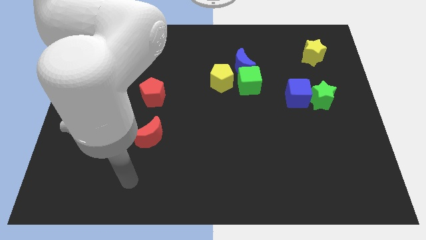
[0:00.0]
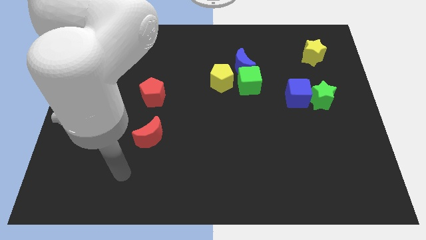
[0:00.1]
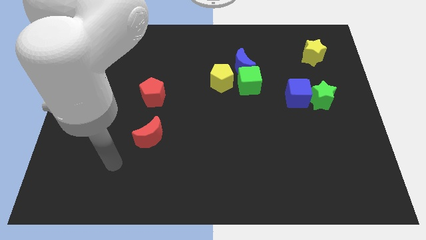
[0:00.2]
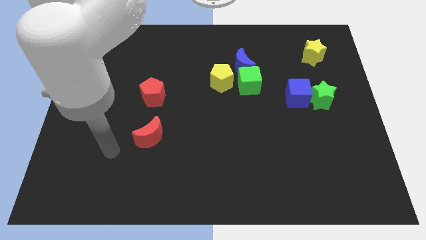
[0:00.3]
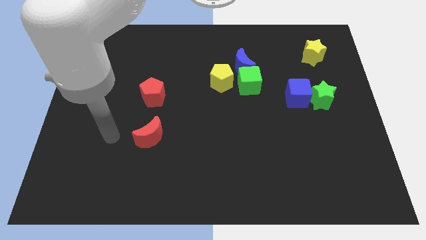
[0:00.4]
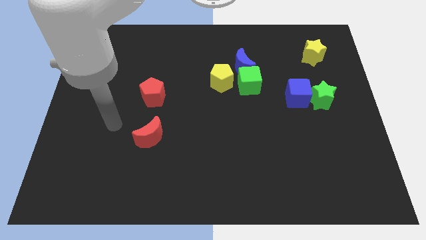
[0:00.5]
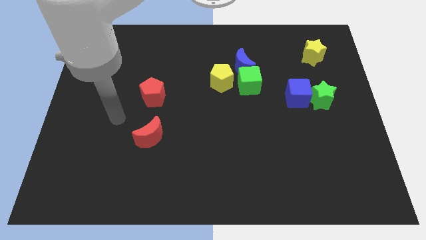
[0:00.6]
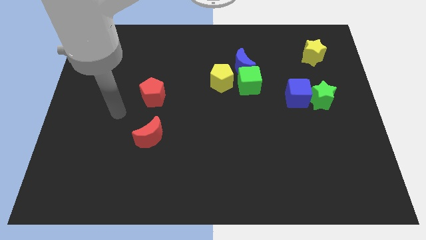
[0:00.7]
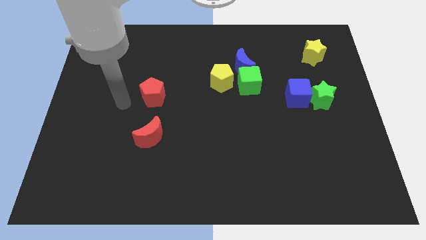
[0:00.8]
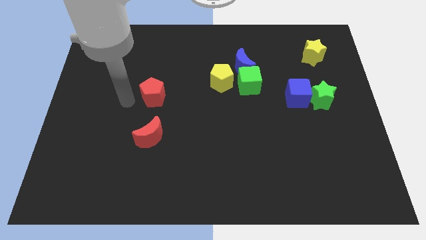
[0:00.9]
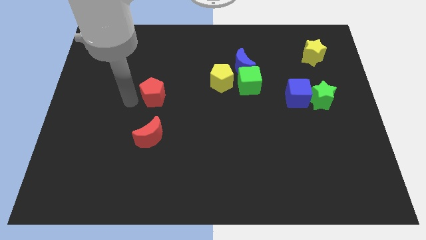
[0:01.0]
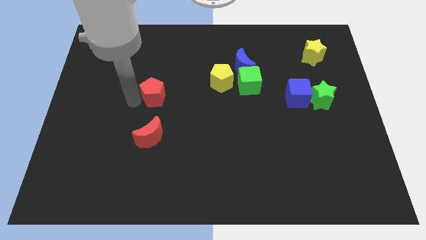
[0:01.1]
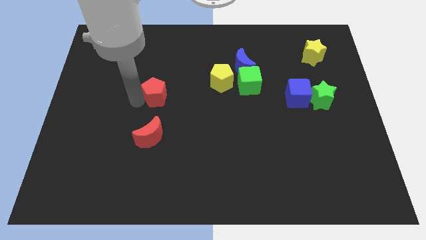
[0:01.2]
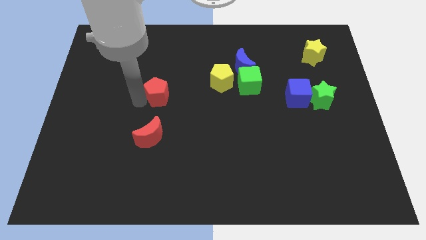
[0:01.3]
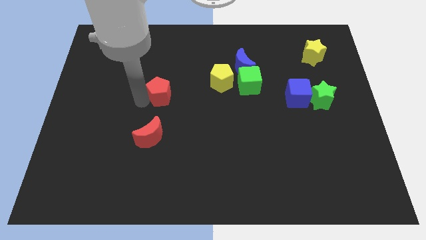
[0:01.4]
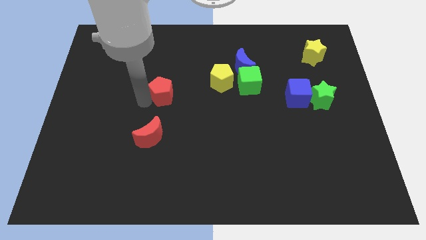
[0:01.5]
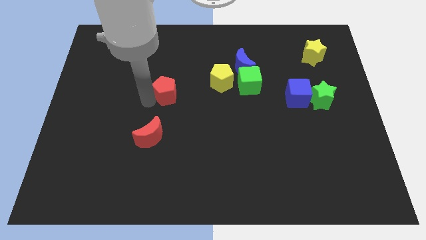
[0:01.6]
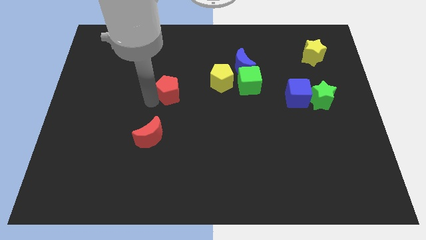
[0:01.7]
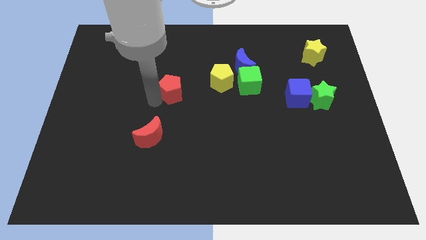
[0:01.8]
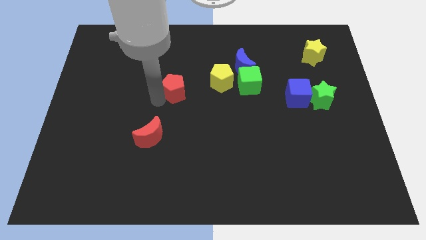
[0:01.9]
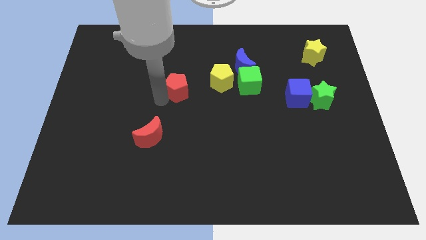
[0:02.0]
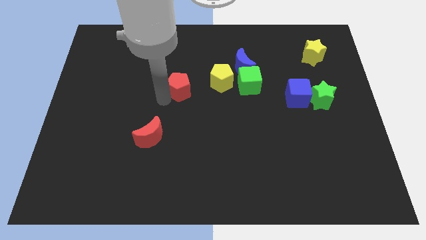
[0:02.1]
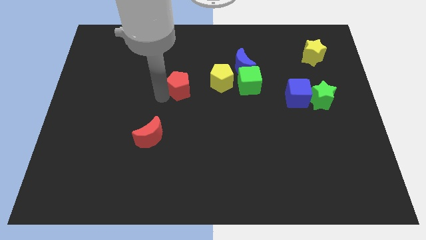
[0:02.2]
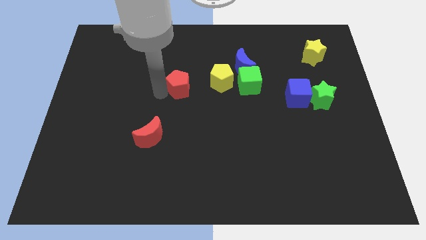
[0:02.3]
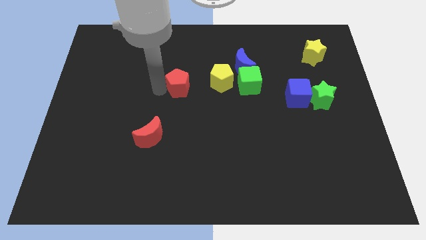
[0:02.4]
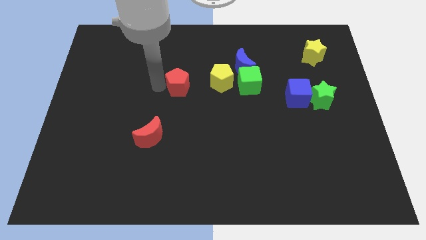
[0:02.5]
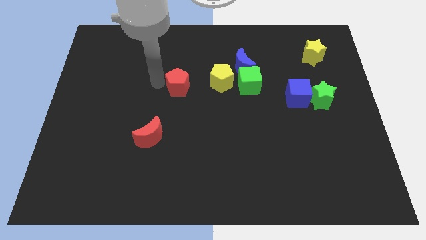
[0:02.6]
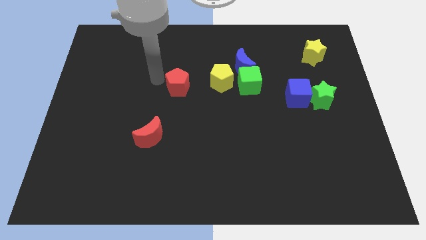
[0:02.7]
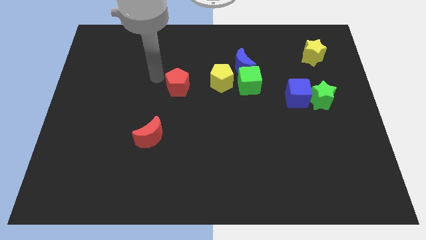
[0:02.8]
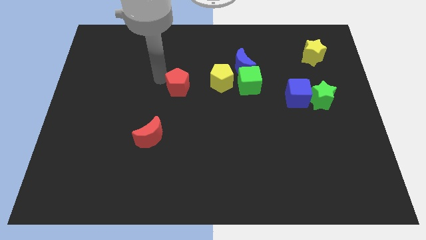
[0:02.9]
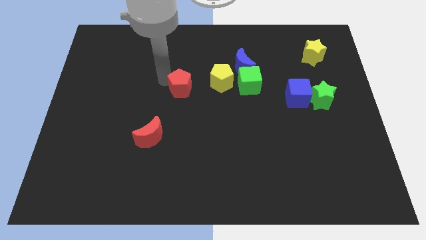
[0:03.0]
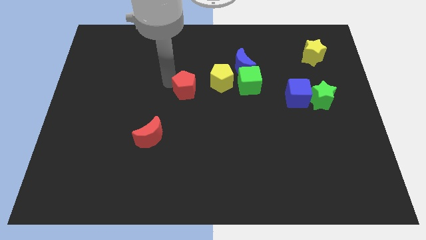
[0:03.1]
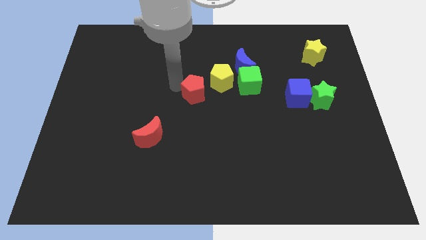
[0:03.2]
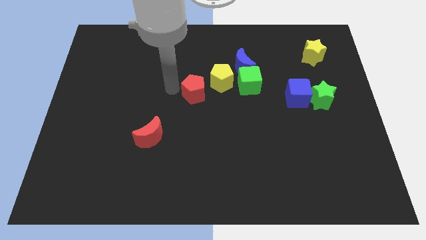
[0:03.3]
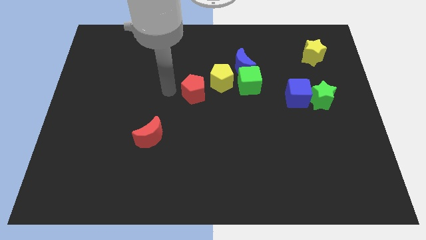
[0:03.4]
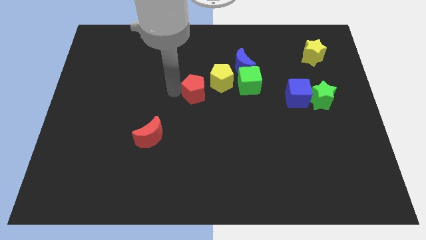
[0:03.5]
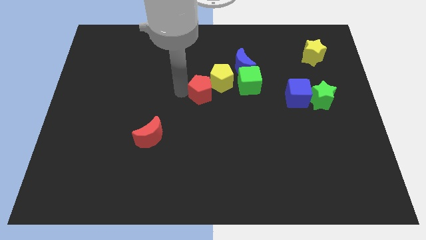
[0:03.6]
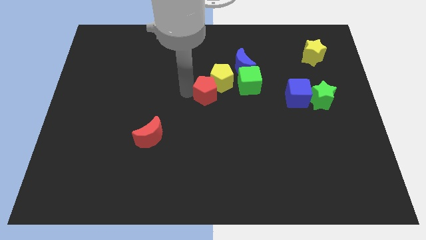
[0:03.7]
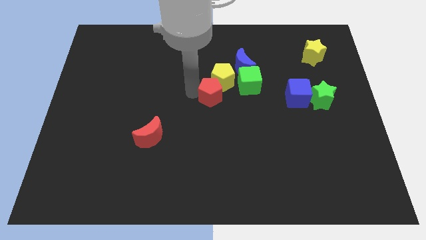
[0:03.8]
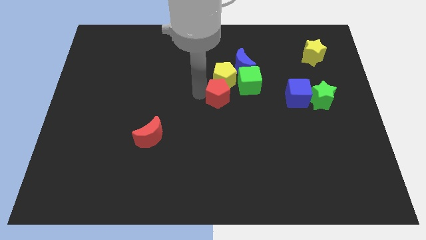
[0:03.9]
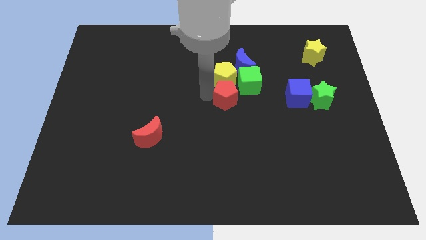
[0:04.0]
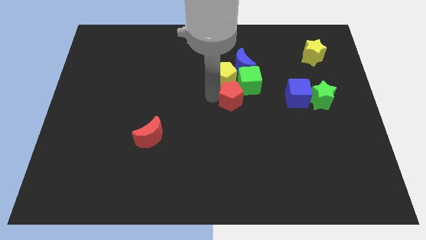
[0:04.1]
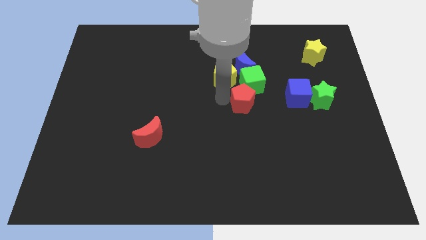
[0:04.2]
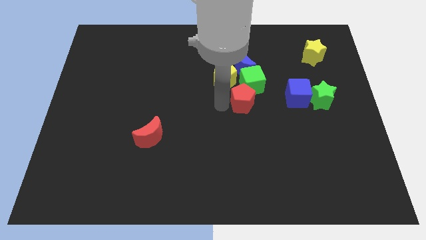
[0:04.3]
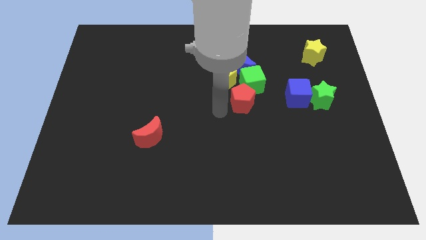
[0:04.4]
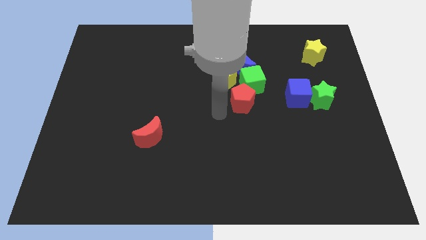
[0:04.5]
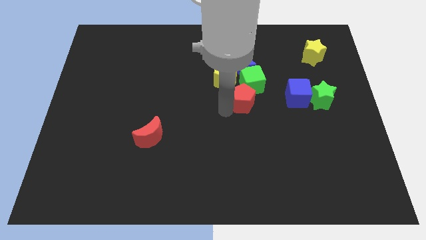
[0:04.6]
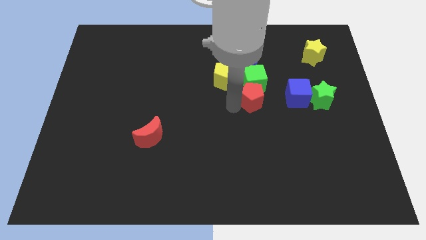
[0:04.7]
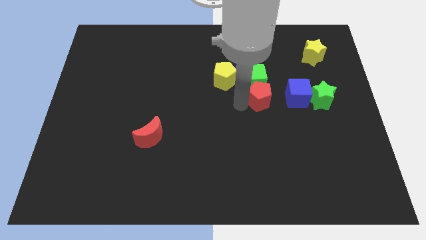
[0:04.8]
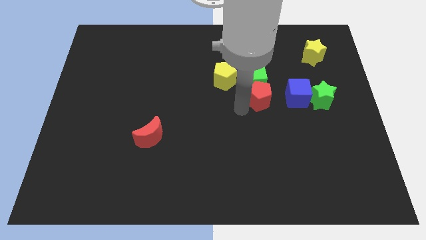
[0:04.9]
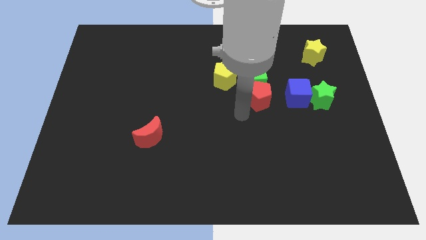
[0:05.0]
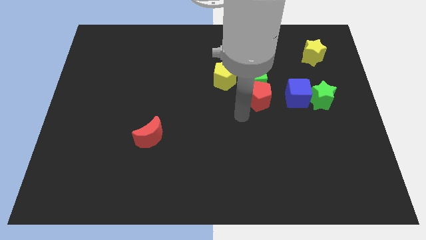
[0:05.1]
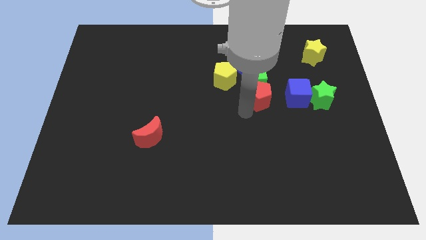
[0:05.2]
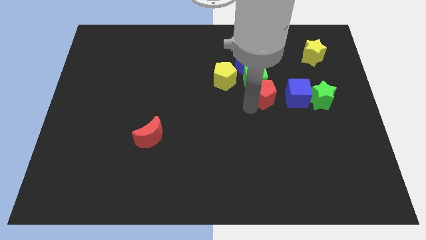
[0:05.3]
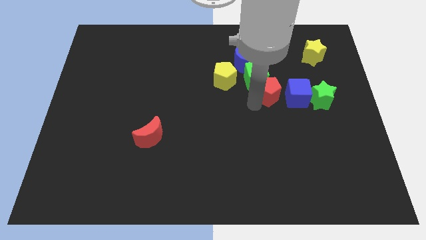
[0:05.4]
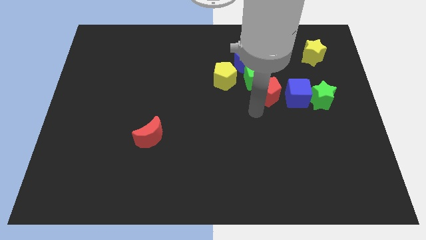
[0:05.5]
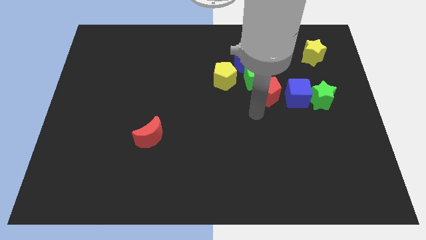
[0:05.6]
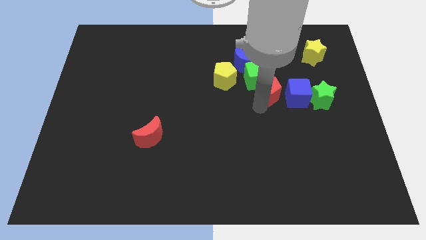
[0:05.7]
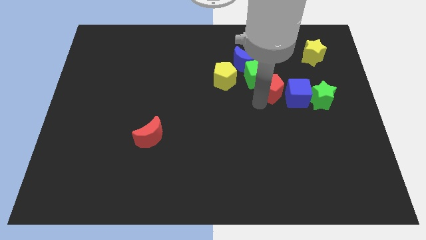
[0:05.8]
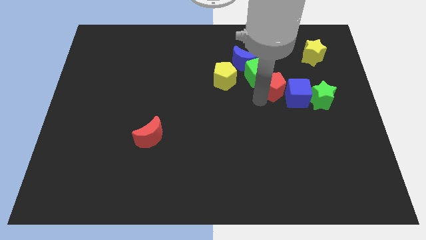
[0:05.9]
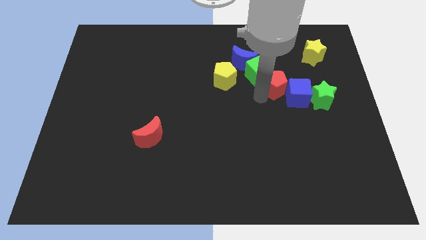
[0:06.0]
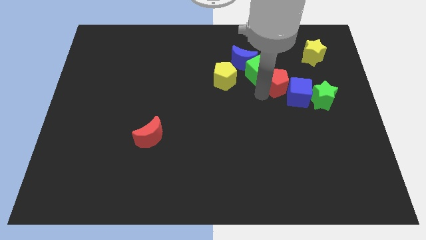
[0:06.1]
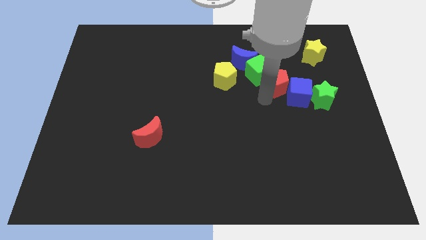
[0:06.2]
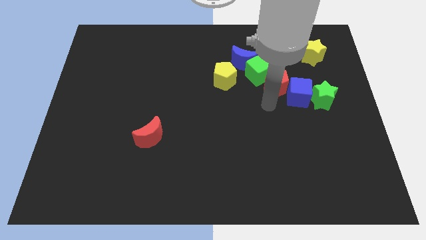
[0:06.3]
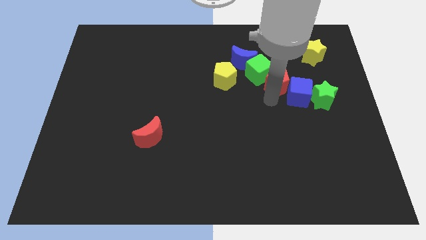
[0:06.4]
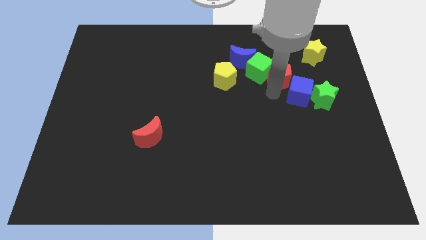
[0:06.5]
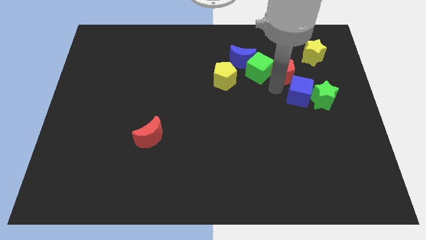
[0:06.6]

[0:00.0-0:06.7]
push the red pentagon just right of the blue moon

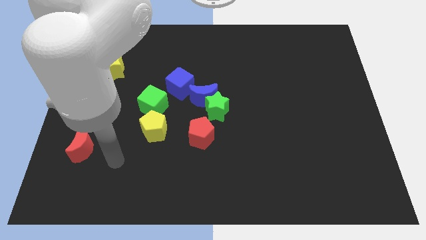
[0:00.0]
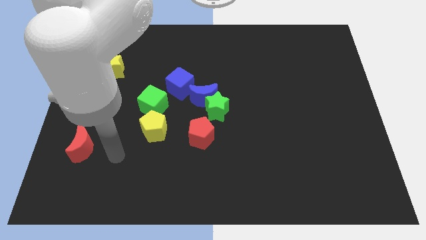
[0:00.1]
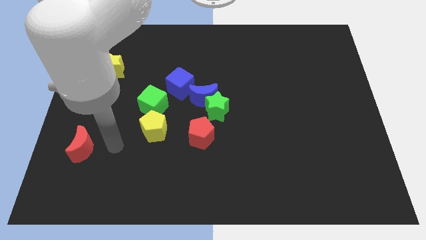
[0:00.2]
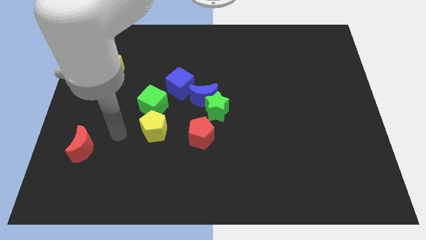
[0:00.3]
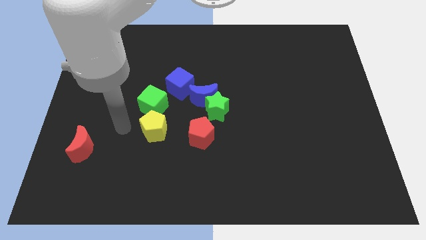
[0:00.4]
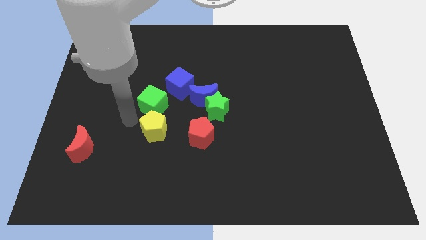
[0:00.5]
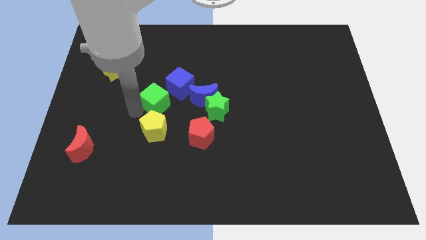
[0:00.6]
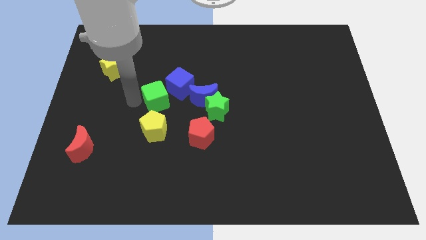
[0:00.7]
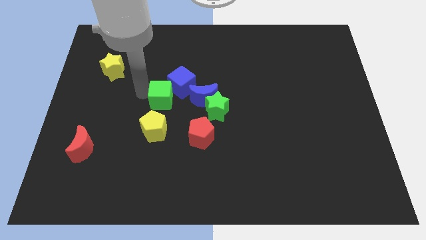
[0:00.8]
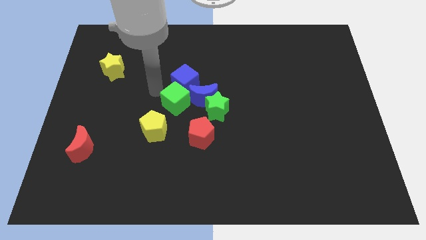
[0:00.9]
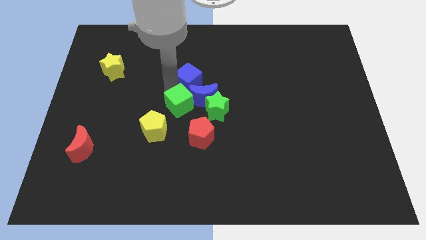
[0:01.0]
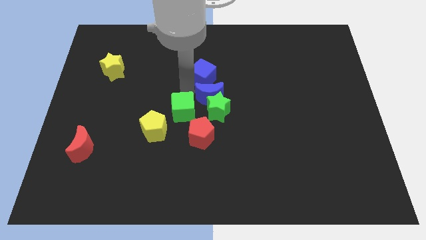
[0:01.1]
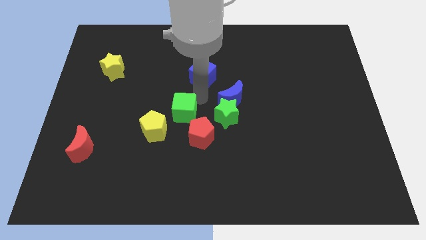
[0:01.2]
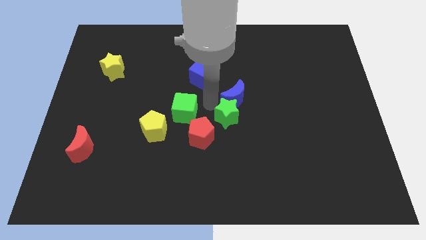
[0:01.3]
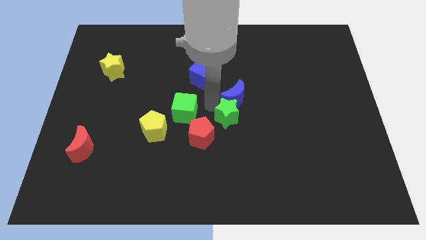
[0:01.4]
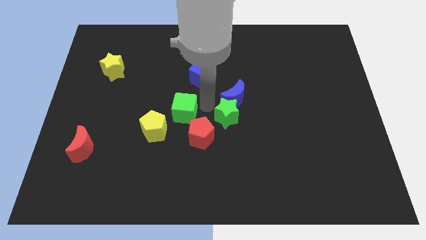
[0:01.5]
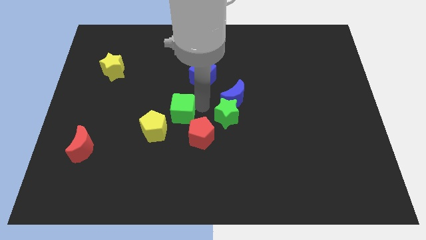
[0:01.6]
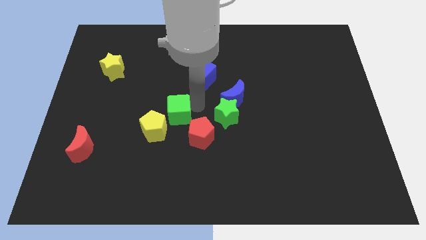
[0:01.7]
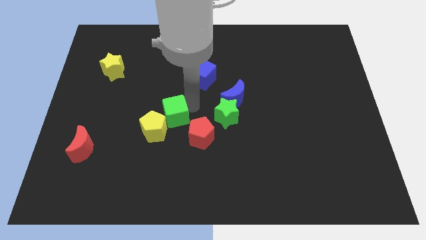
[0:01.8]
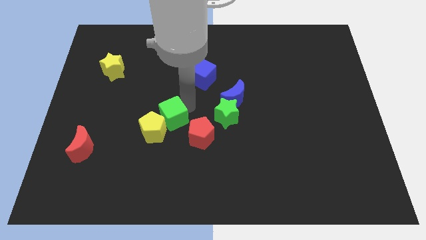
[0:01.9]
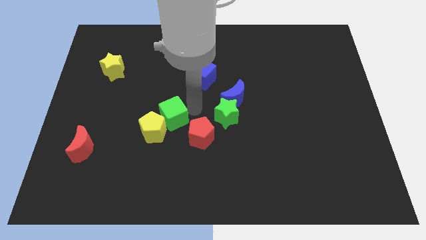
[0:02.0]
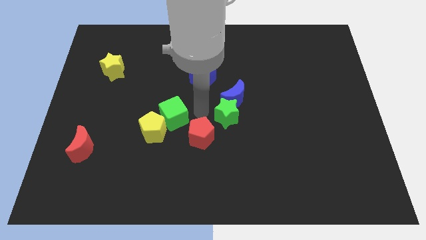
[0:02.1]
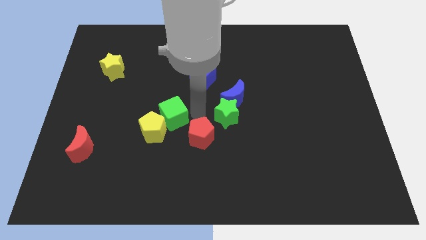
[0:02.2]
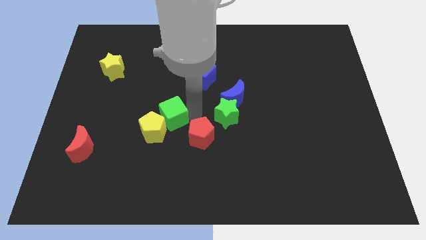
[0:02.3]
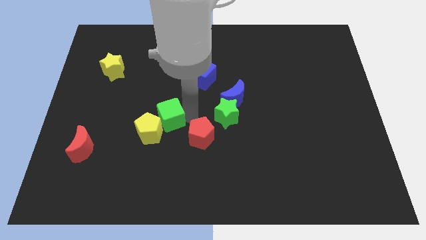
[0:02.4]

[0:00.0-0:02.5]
put the green cube to the left of the red pentagon
